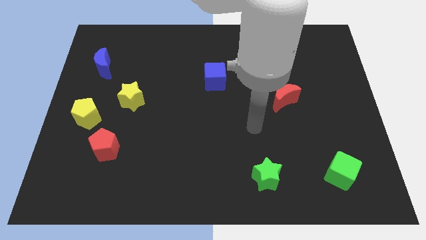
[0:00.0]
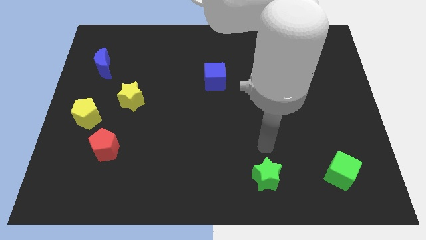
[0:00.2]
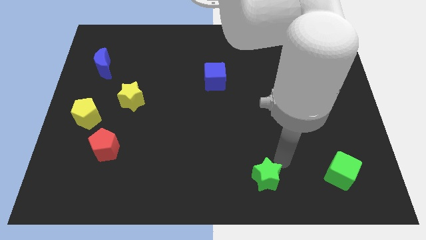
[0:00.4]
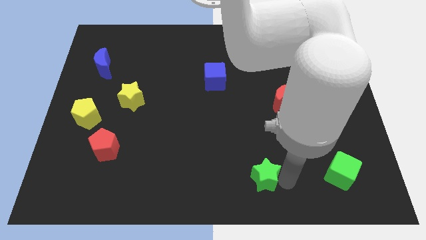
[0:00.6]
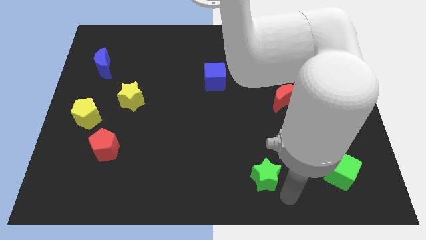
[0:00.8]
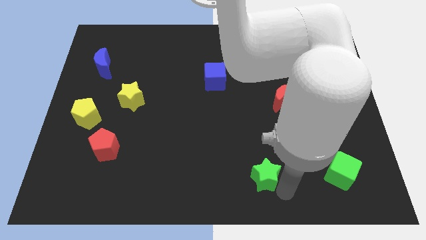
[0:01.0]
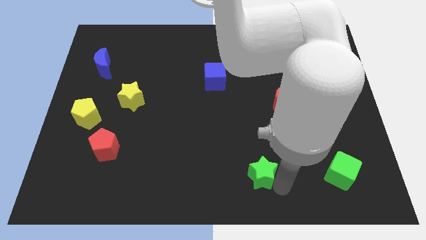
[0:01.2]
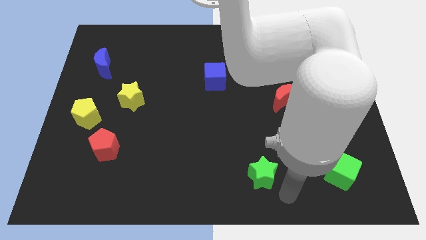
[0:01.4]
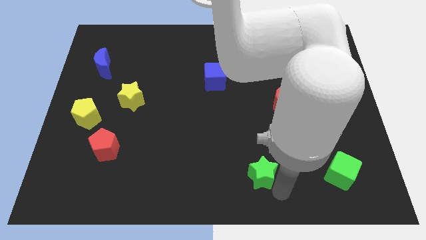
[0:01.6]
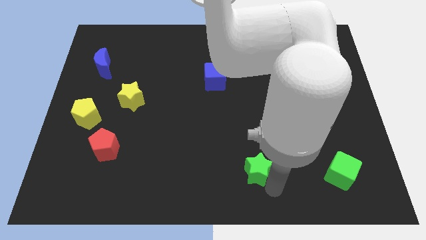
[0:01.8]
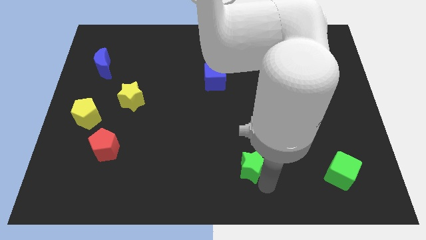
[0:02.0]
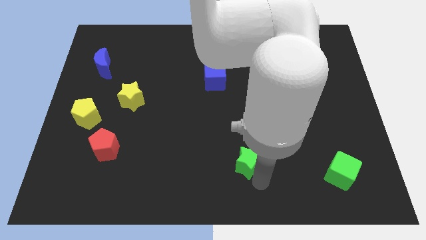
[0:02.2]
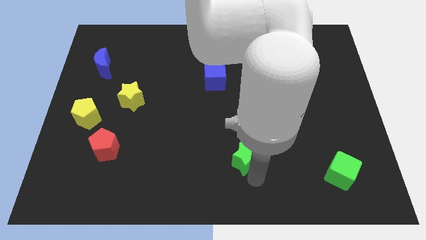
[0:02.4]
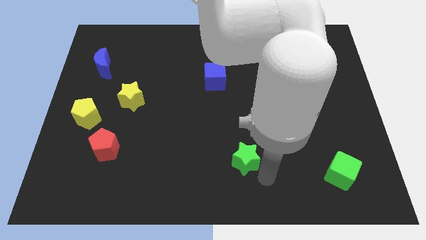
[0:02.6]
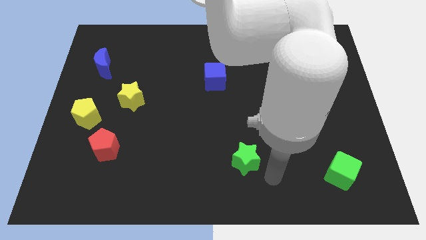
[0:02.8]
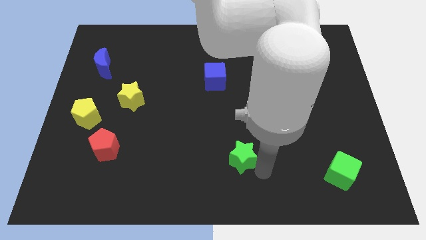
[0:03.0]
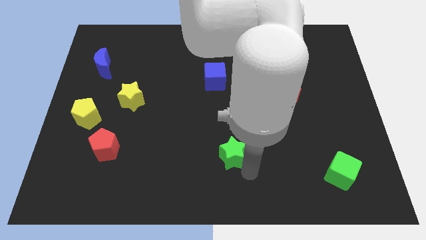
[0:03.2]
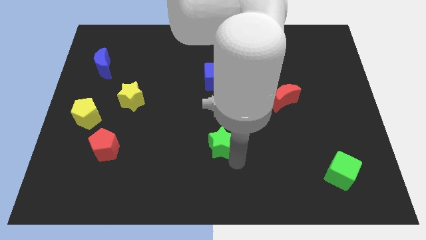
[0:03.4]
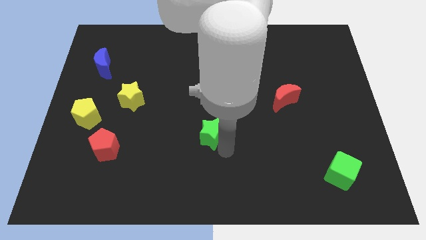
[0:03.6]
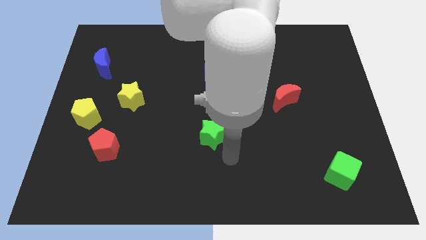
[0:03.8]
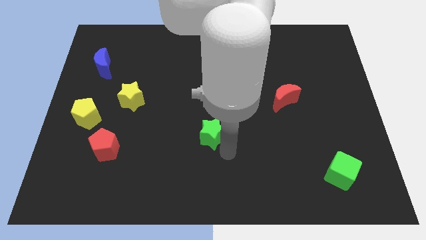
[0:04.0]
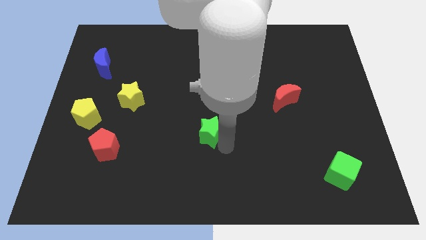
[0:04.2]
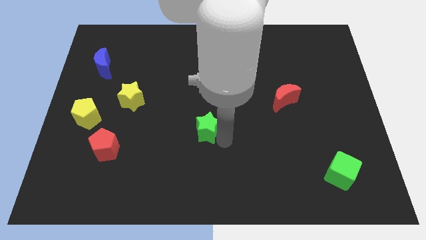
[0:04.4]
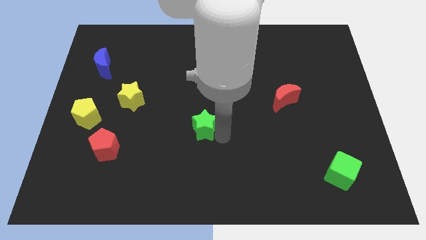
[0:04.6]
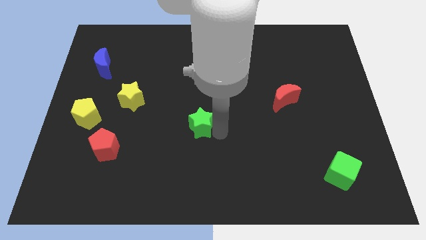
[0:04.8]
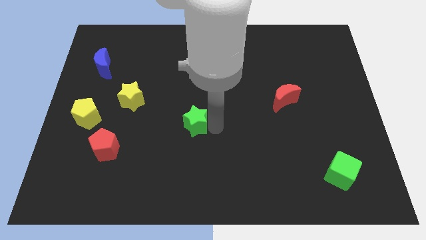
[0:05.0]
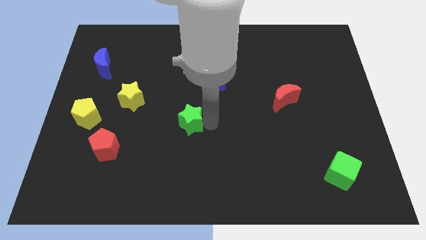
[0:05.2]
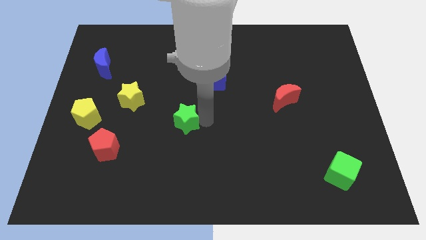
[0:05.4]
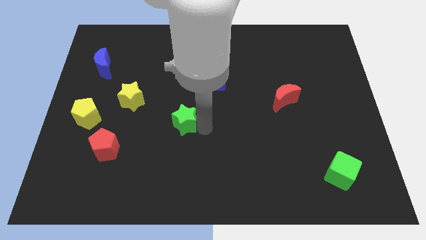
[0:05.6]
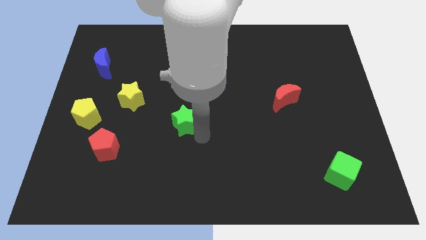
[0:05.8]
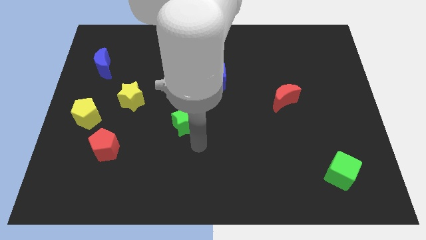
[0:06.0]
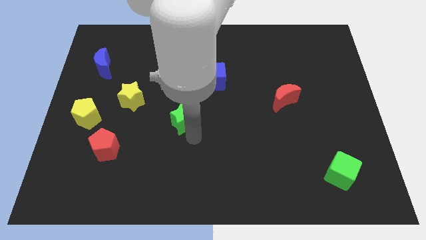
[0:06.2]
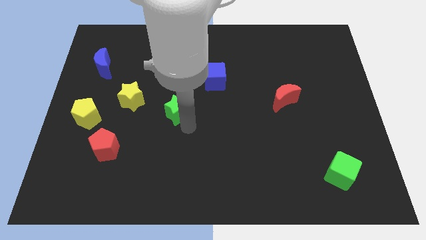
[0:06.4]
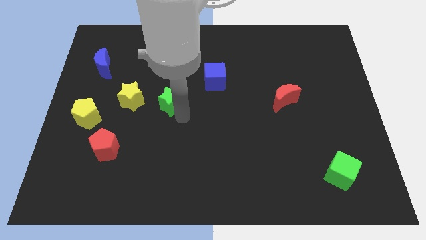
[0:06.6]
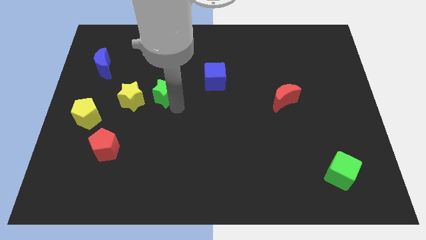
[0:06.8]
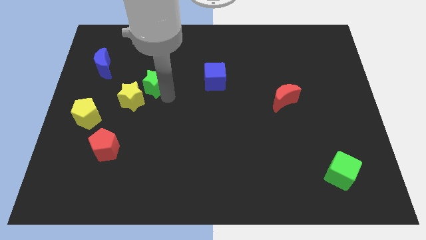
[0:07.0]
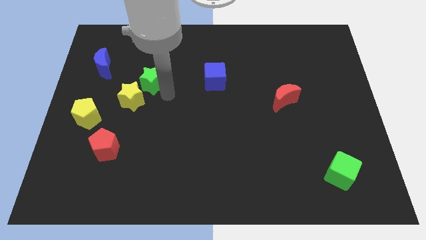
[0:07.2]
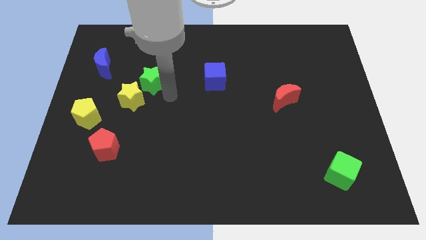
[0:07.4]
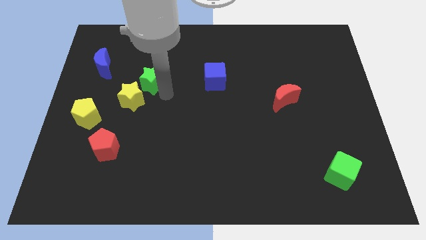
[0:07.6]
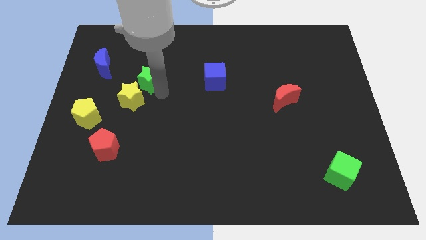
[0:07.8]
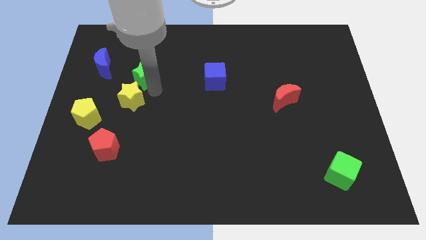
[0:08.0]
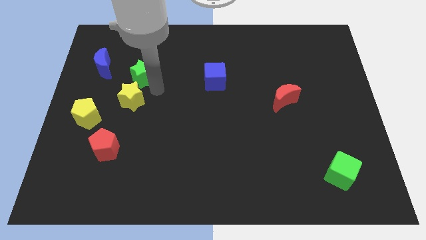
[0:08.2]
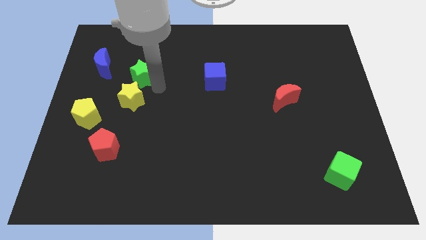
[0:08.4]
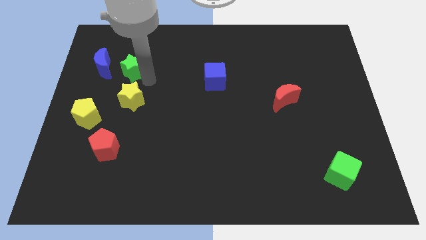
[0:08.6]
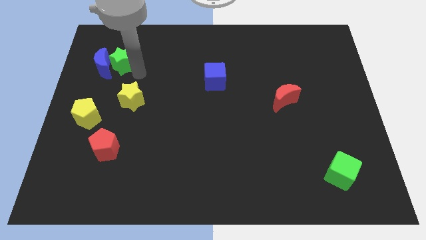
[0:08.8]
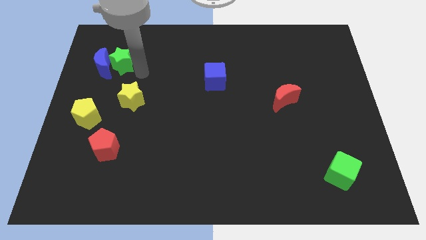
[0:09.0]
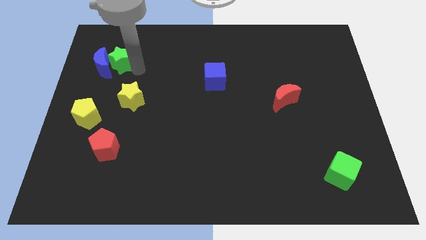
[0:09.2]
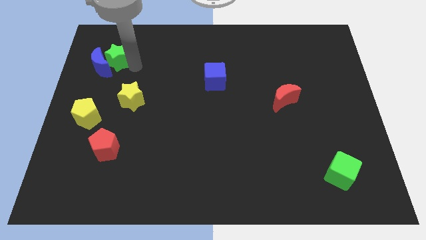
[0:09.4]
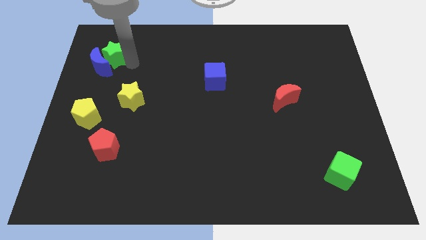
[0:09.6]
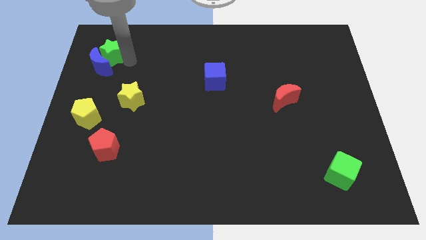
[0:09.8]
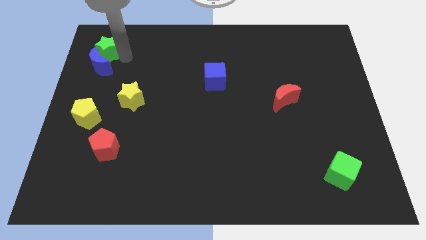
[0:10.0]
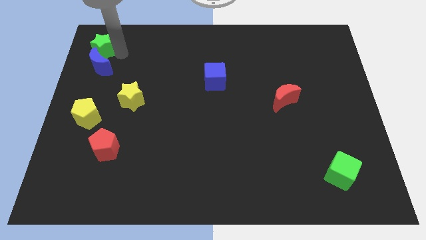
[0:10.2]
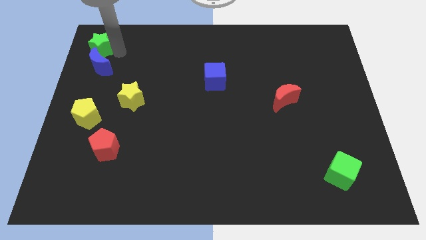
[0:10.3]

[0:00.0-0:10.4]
push the green star to the top left of the board

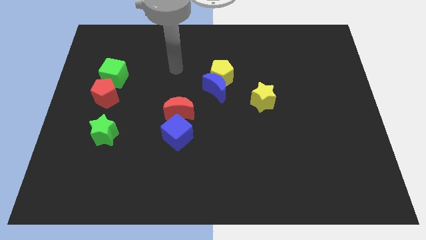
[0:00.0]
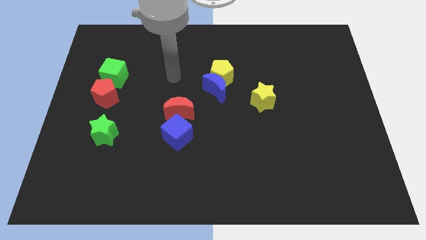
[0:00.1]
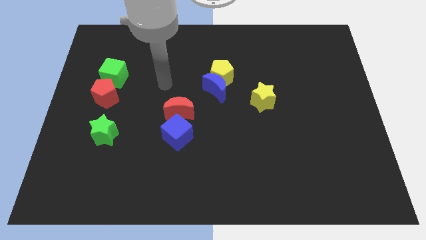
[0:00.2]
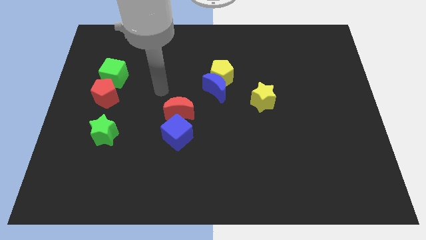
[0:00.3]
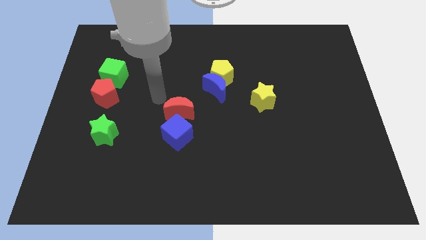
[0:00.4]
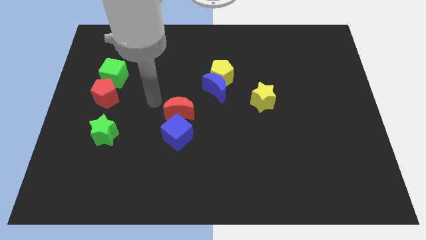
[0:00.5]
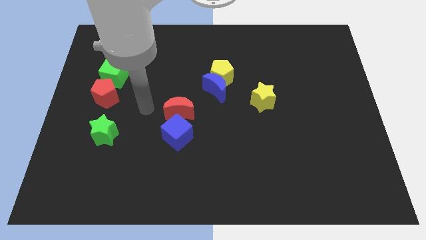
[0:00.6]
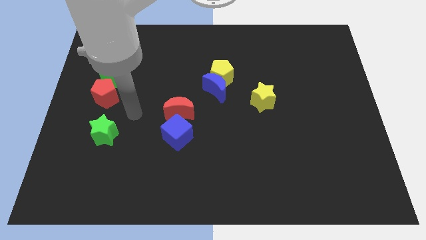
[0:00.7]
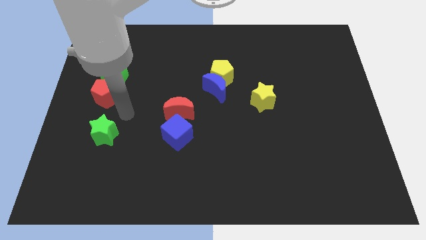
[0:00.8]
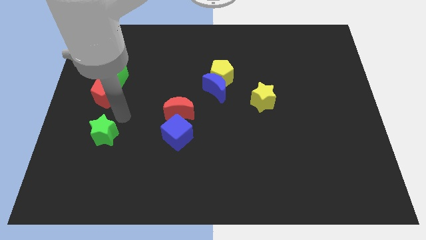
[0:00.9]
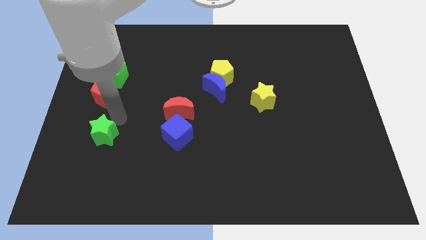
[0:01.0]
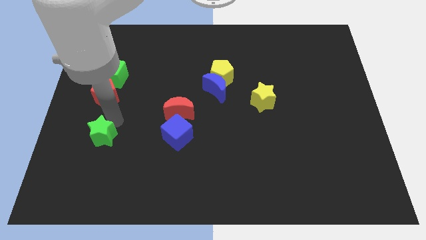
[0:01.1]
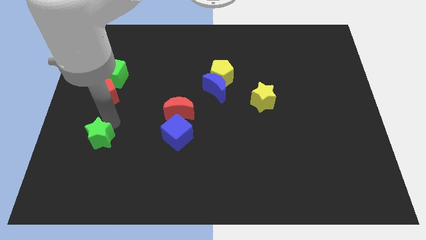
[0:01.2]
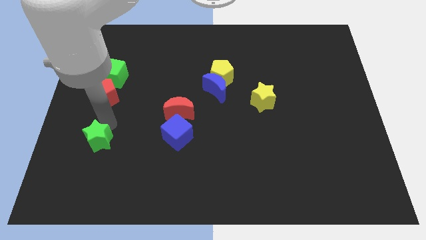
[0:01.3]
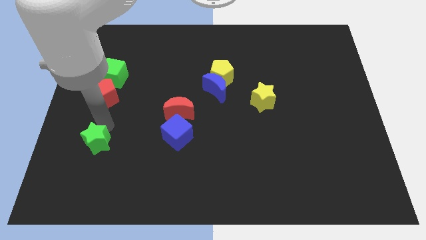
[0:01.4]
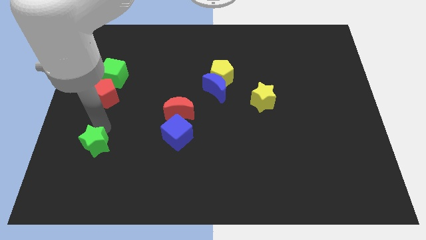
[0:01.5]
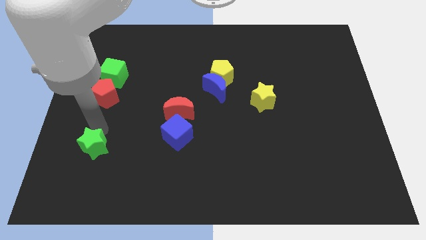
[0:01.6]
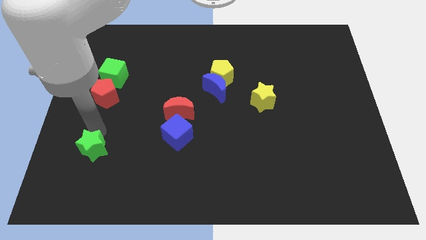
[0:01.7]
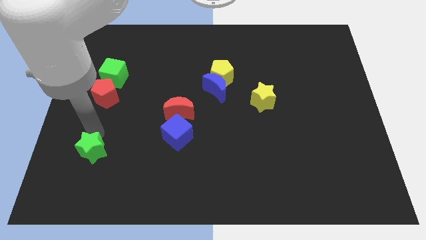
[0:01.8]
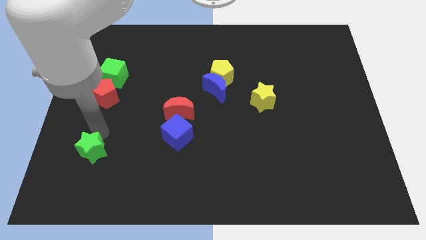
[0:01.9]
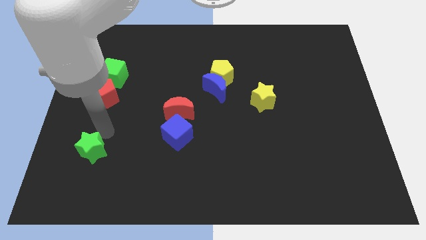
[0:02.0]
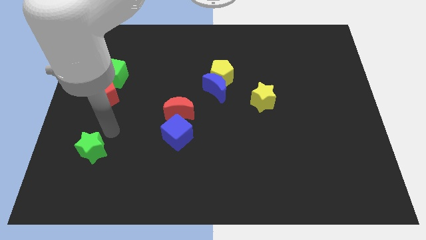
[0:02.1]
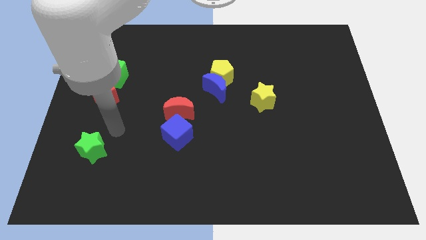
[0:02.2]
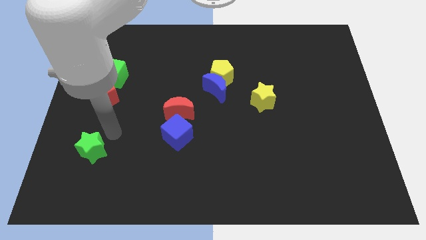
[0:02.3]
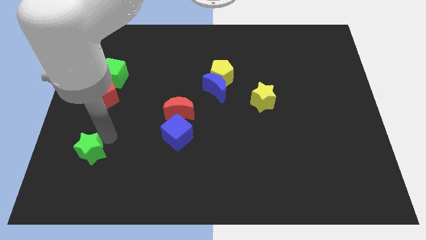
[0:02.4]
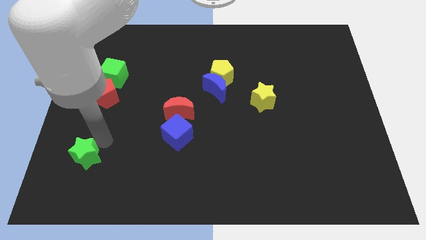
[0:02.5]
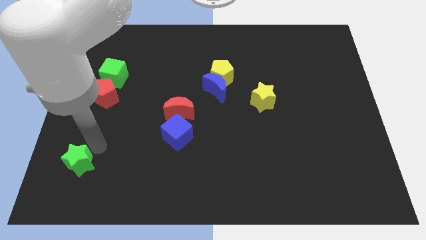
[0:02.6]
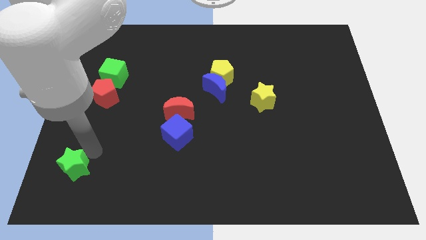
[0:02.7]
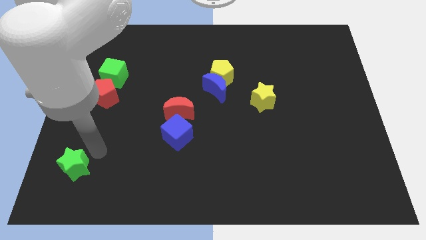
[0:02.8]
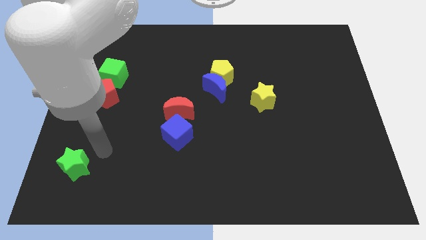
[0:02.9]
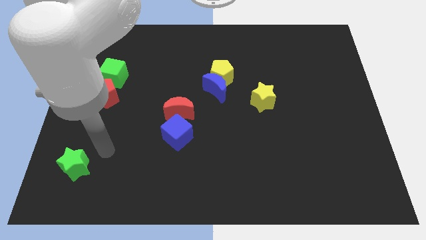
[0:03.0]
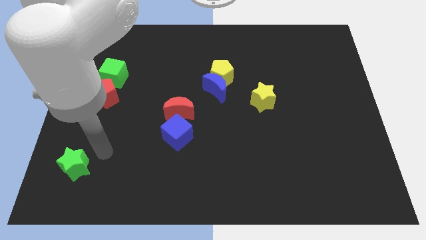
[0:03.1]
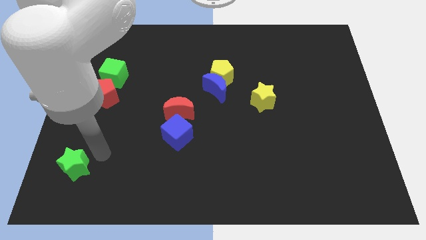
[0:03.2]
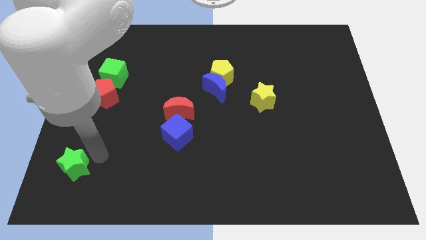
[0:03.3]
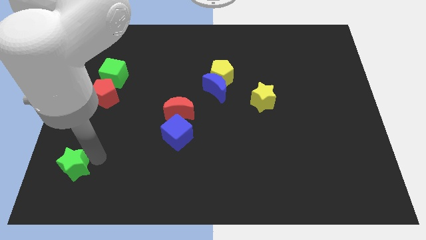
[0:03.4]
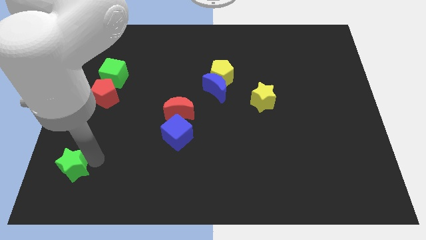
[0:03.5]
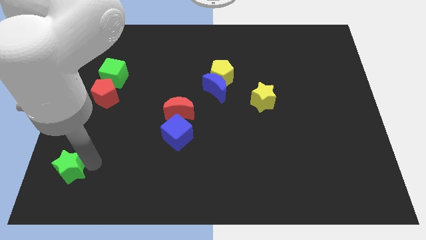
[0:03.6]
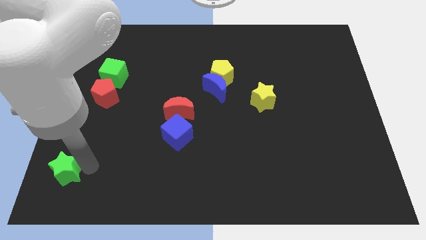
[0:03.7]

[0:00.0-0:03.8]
push the green star to the bottom left
